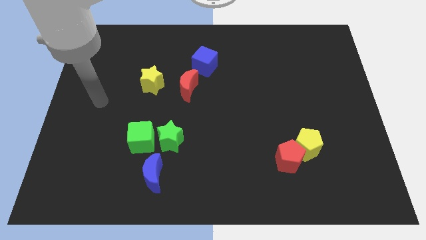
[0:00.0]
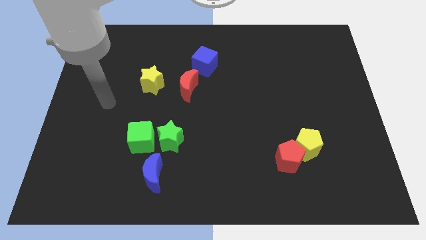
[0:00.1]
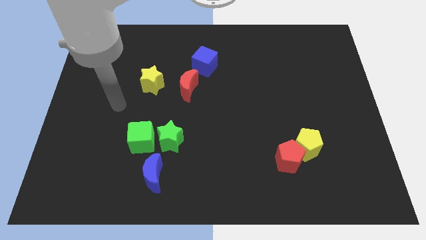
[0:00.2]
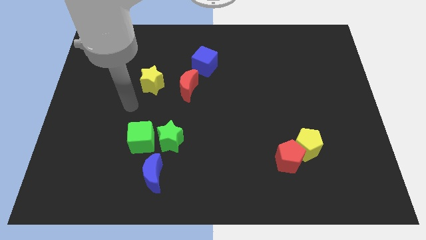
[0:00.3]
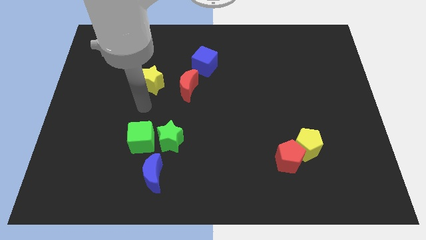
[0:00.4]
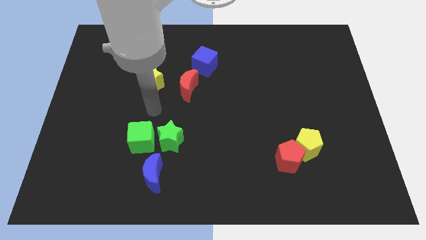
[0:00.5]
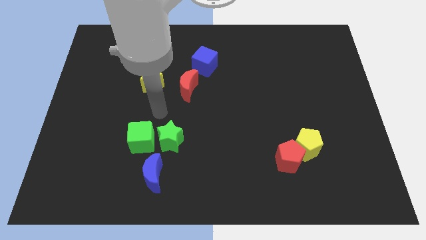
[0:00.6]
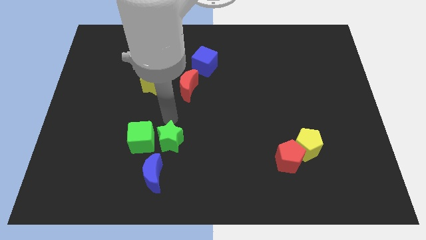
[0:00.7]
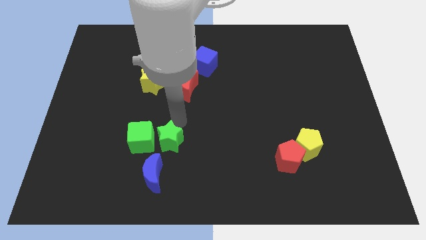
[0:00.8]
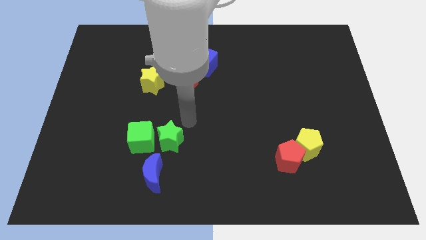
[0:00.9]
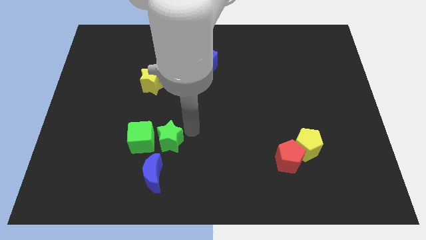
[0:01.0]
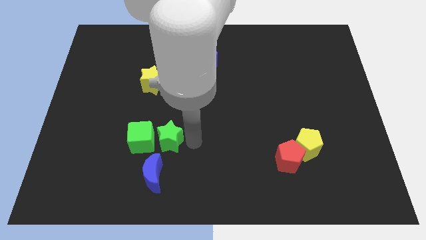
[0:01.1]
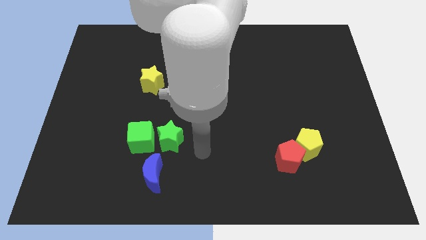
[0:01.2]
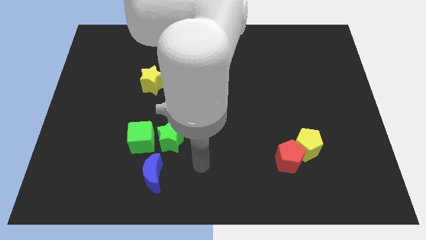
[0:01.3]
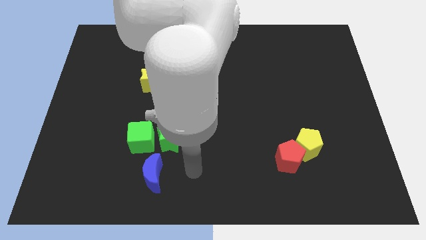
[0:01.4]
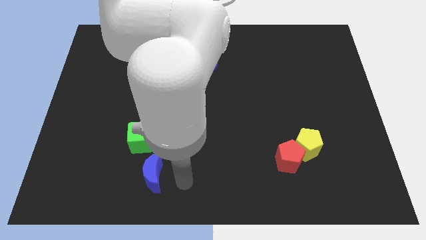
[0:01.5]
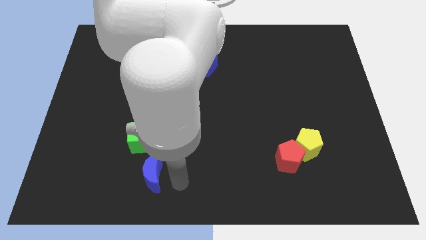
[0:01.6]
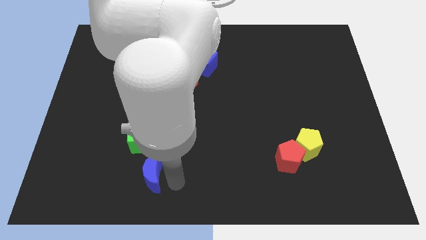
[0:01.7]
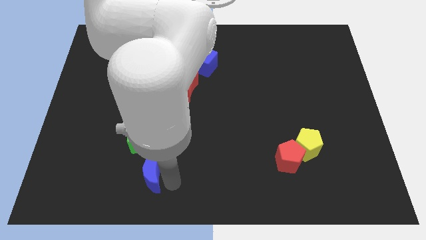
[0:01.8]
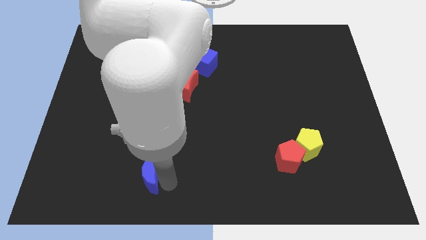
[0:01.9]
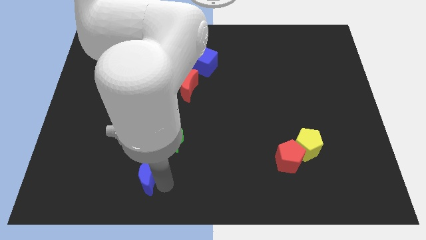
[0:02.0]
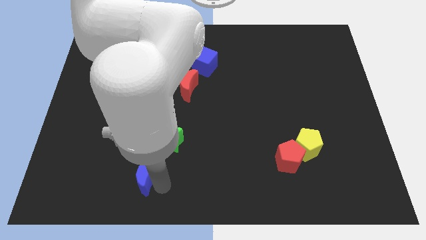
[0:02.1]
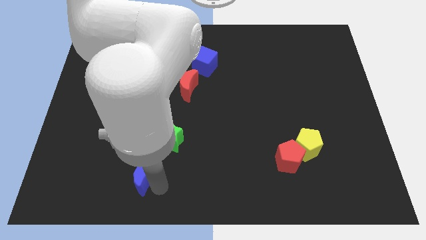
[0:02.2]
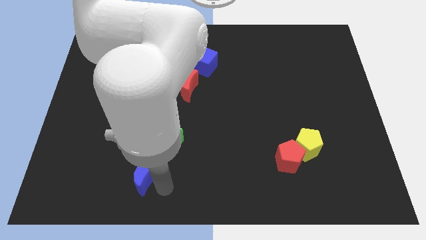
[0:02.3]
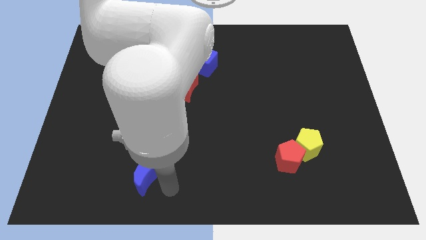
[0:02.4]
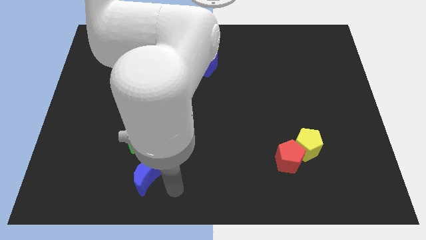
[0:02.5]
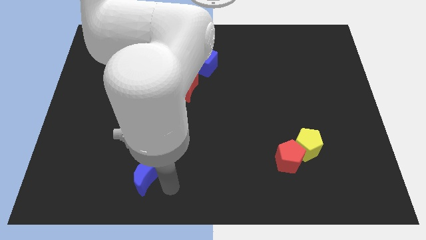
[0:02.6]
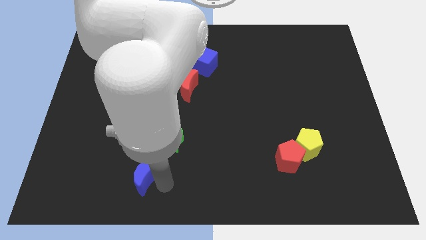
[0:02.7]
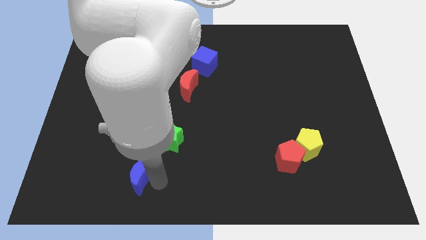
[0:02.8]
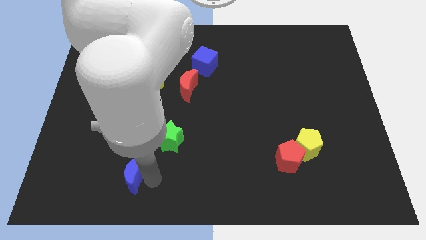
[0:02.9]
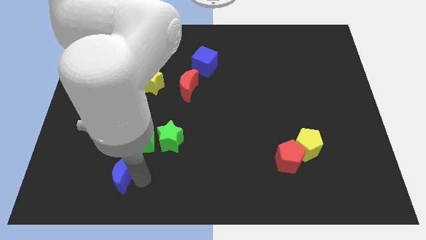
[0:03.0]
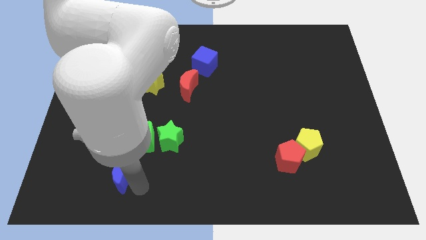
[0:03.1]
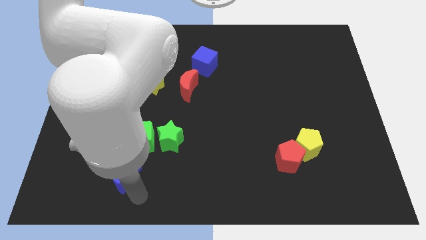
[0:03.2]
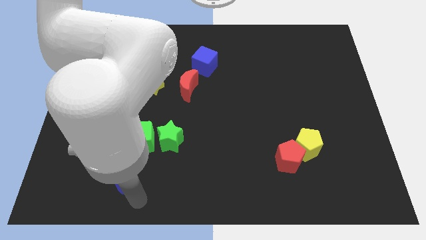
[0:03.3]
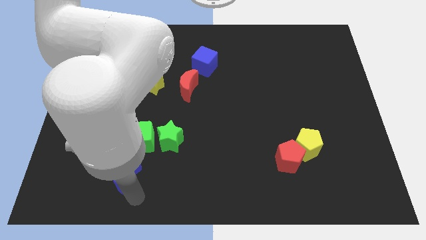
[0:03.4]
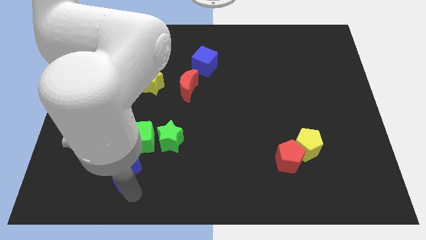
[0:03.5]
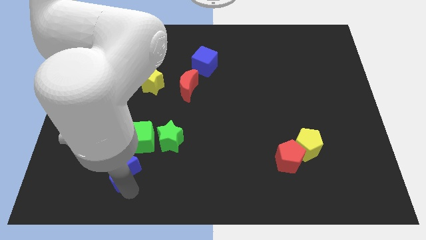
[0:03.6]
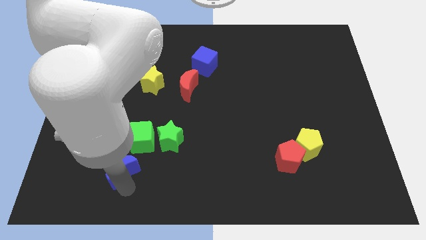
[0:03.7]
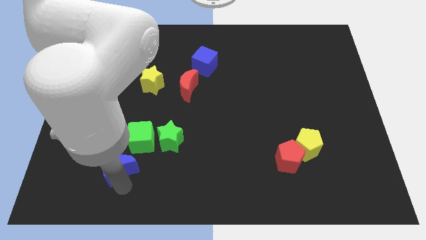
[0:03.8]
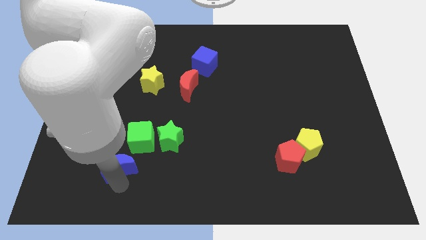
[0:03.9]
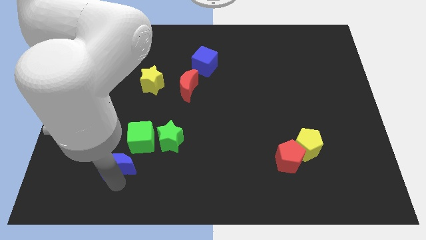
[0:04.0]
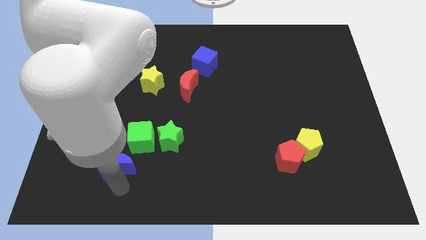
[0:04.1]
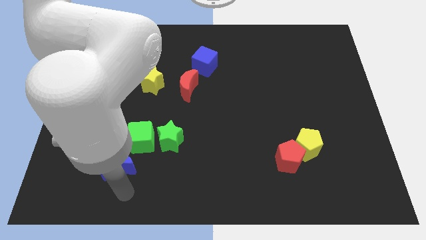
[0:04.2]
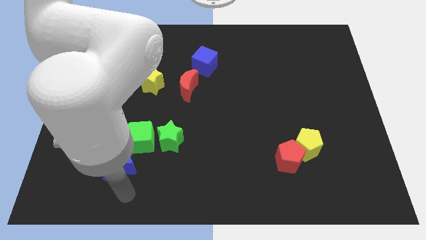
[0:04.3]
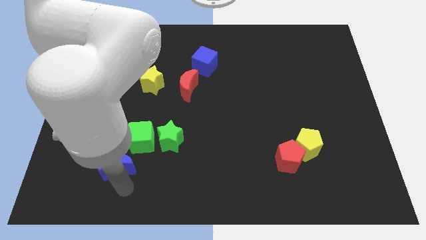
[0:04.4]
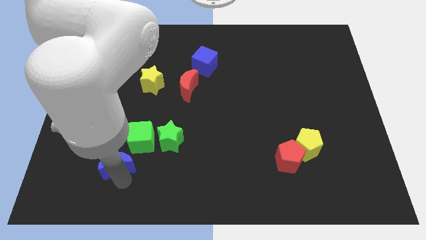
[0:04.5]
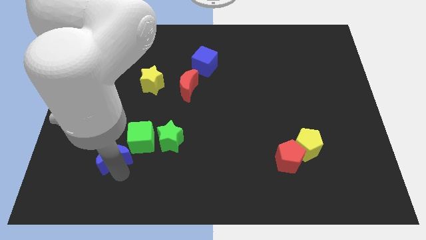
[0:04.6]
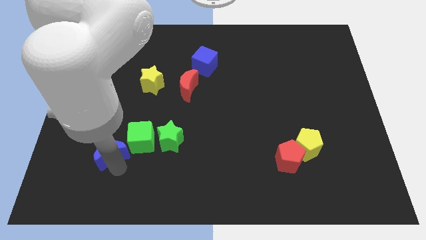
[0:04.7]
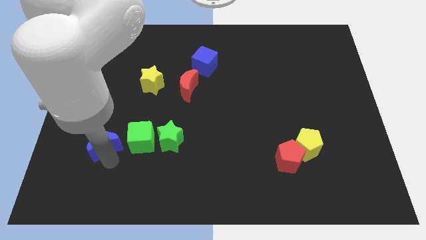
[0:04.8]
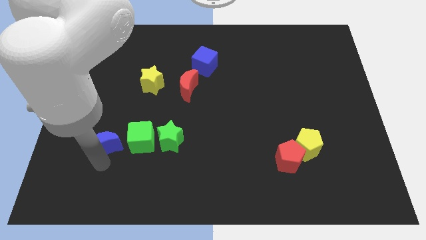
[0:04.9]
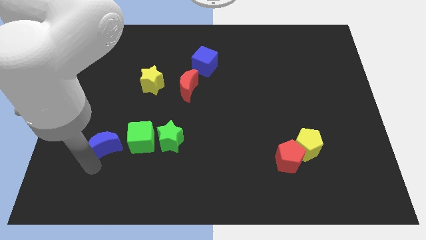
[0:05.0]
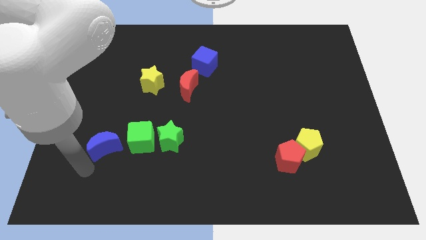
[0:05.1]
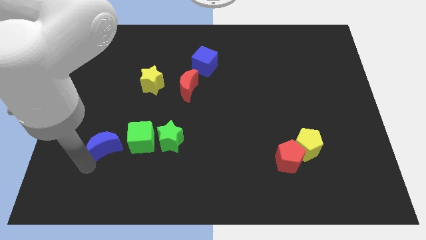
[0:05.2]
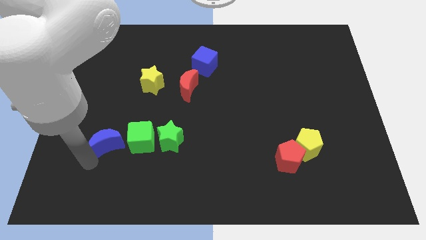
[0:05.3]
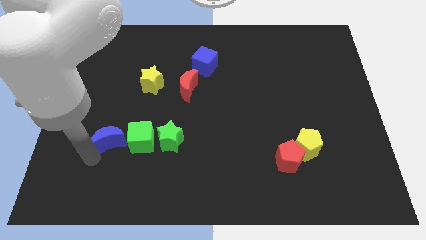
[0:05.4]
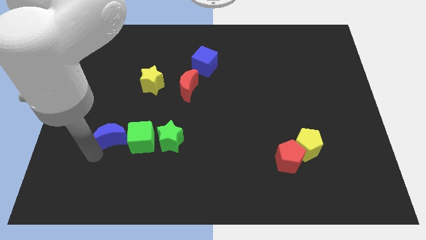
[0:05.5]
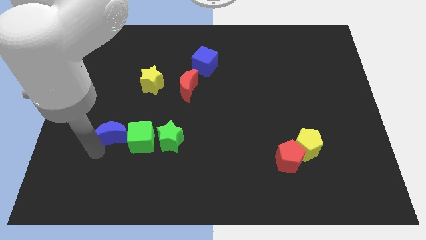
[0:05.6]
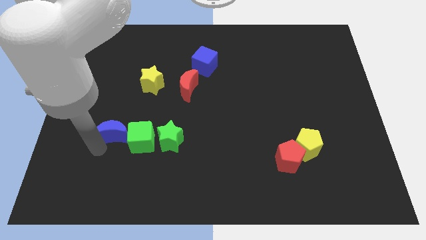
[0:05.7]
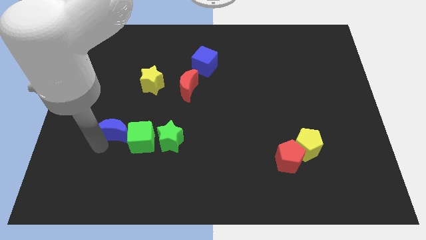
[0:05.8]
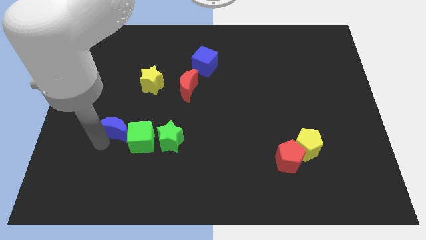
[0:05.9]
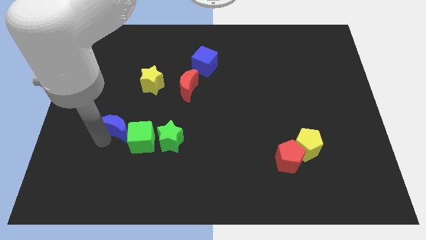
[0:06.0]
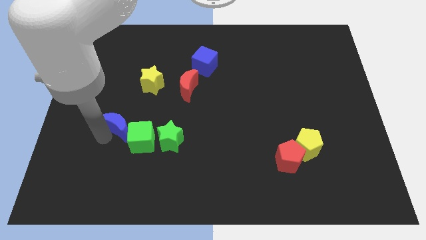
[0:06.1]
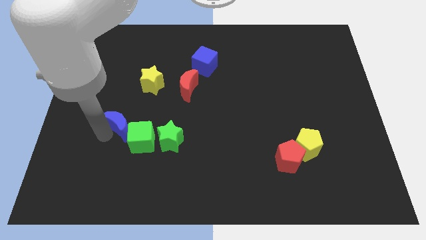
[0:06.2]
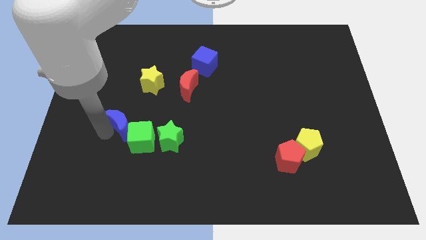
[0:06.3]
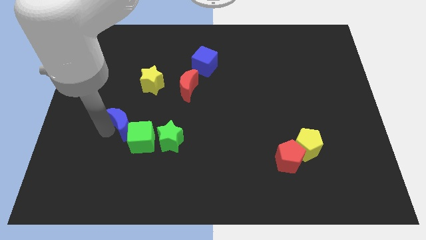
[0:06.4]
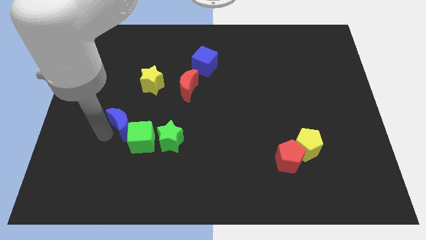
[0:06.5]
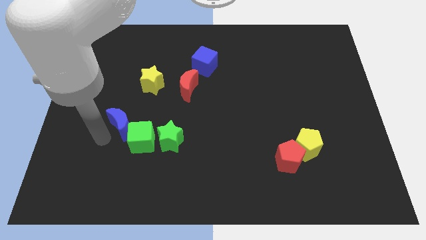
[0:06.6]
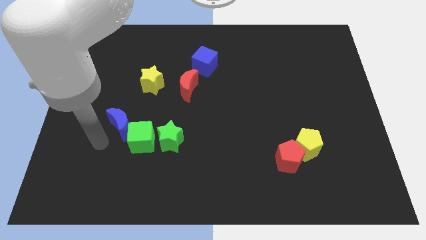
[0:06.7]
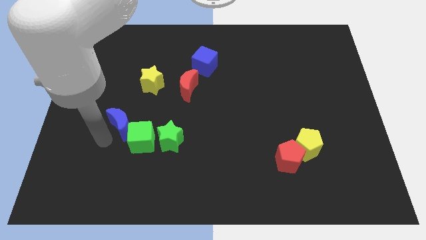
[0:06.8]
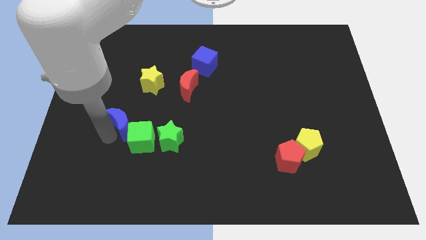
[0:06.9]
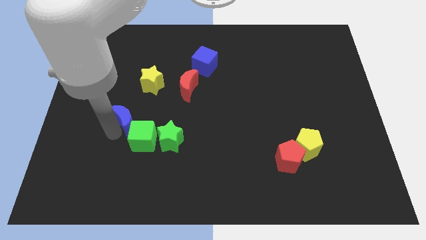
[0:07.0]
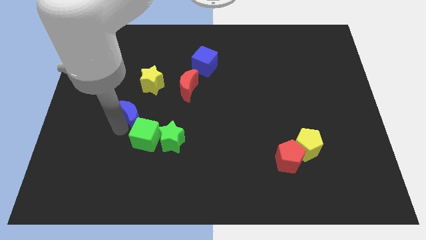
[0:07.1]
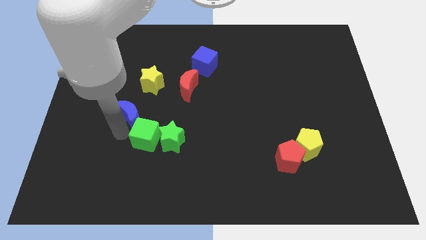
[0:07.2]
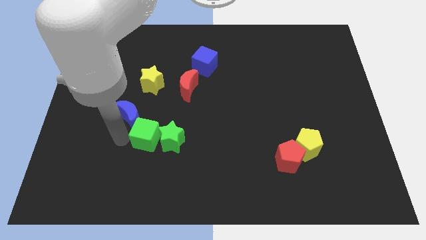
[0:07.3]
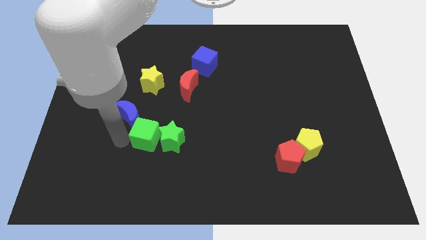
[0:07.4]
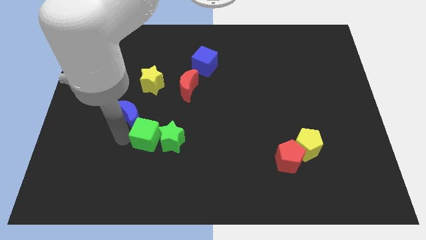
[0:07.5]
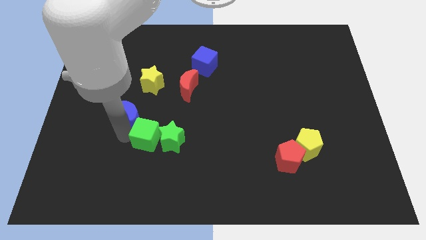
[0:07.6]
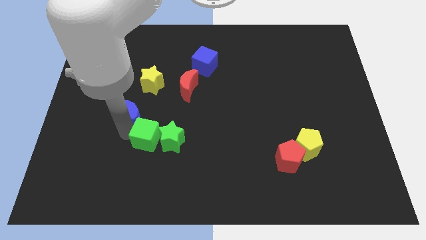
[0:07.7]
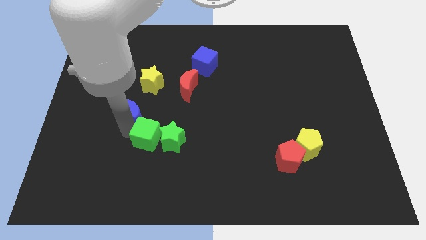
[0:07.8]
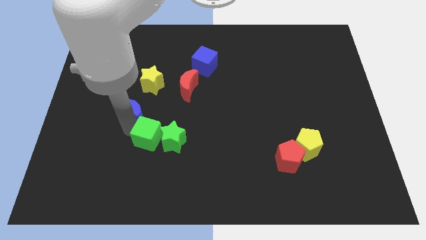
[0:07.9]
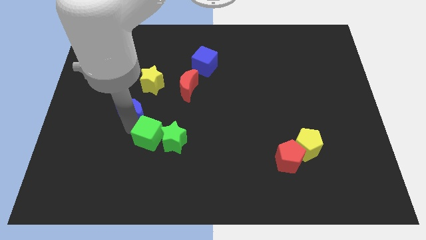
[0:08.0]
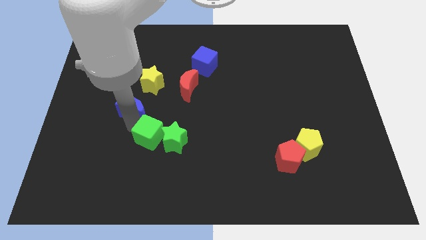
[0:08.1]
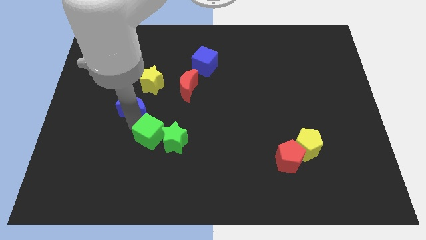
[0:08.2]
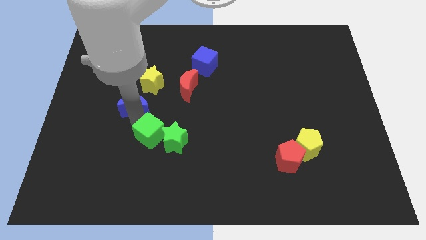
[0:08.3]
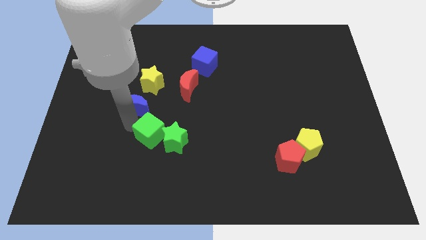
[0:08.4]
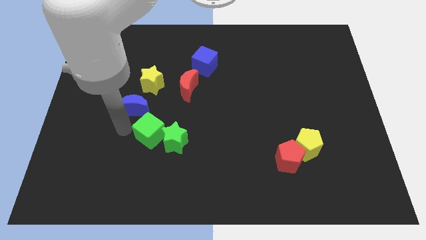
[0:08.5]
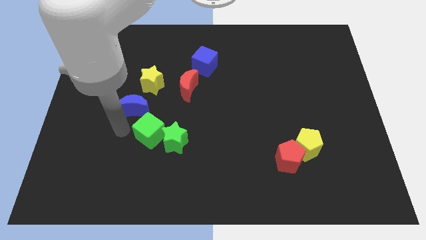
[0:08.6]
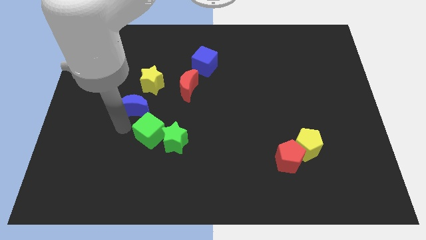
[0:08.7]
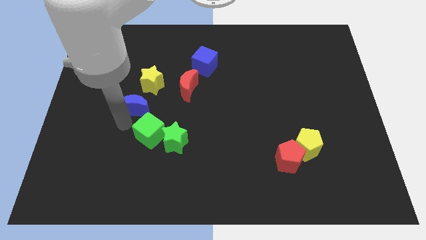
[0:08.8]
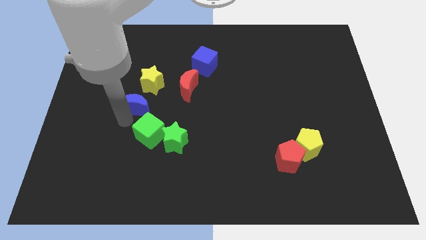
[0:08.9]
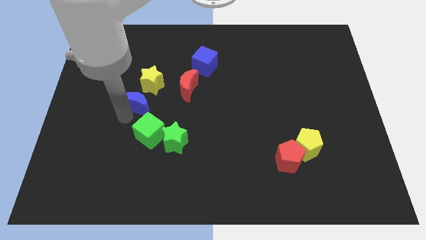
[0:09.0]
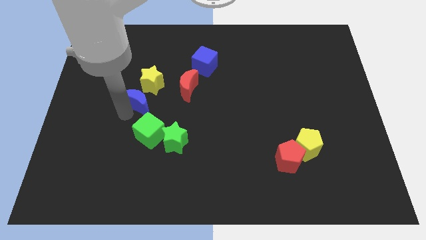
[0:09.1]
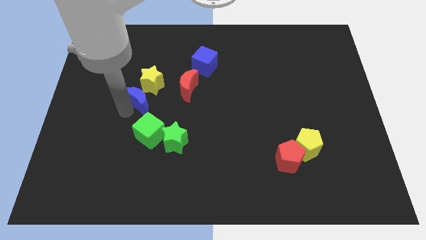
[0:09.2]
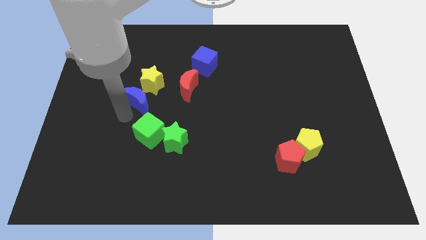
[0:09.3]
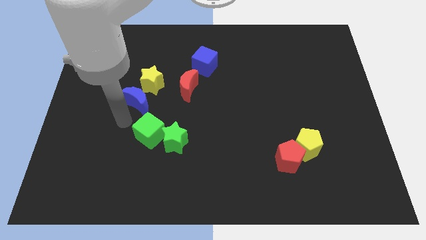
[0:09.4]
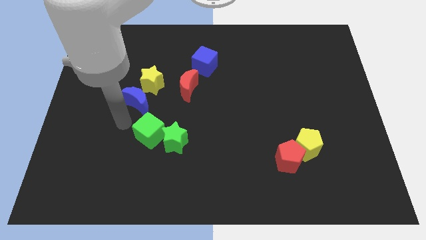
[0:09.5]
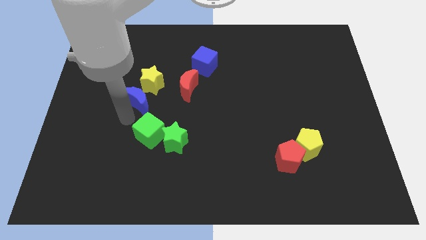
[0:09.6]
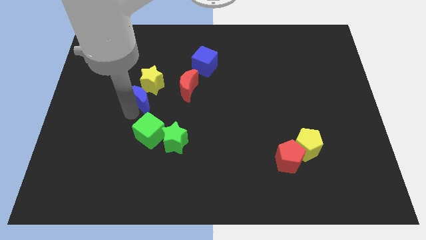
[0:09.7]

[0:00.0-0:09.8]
put the blue moon close to the yellow star
